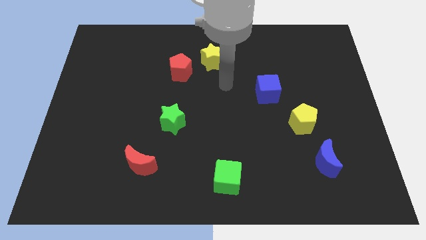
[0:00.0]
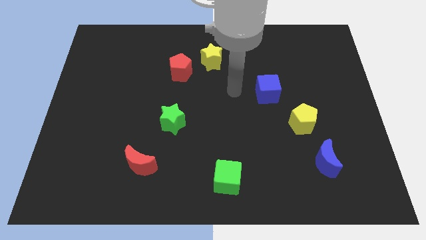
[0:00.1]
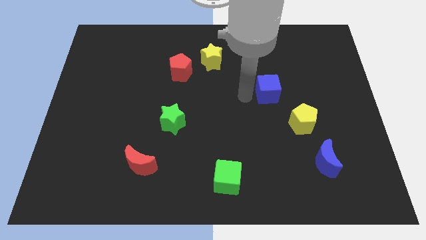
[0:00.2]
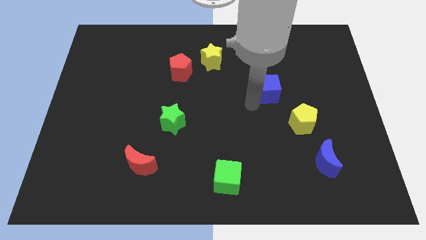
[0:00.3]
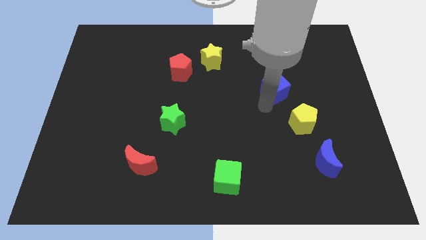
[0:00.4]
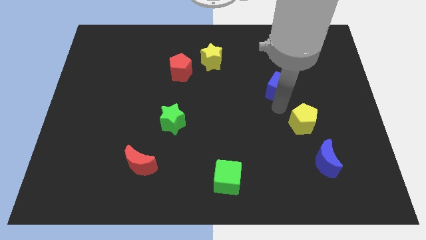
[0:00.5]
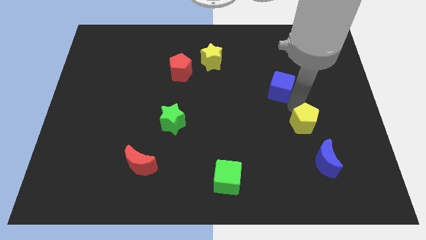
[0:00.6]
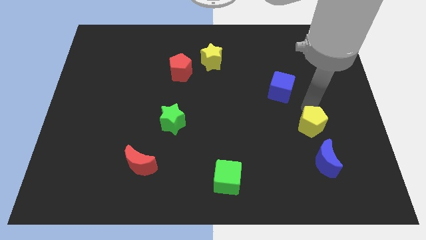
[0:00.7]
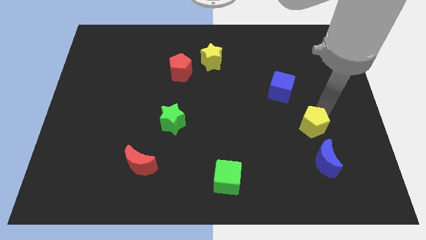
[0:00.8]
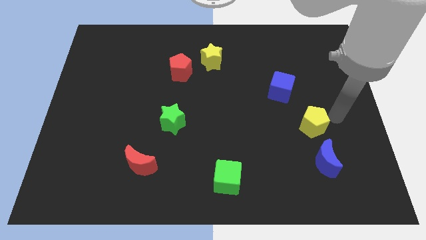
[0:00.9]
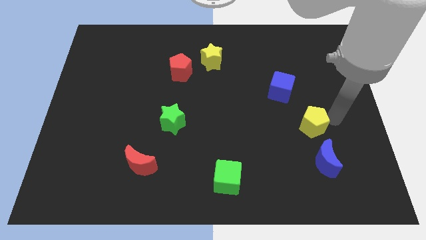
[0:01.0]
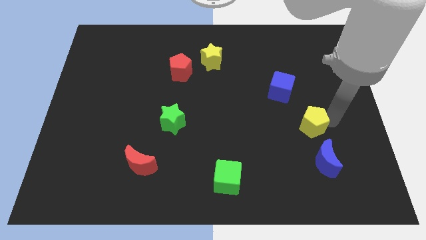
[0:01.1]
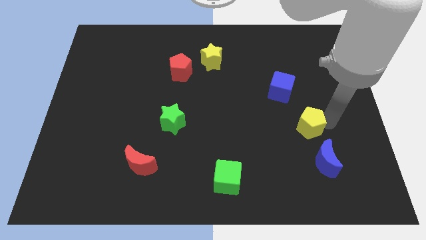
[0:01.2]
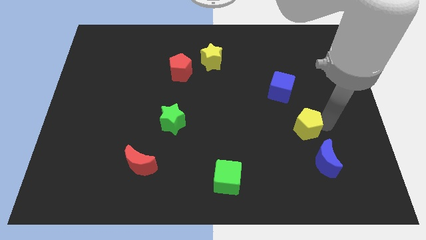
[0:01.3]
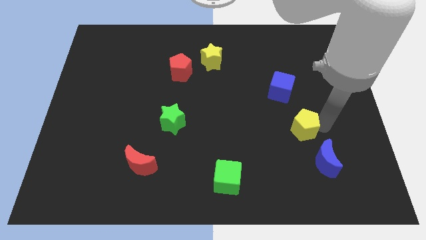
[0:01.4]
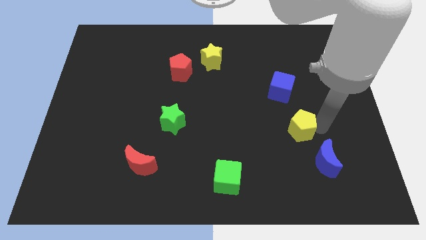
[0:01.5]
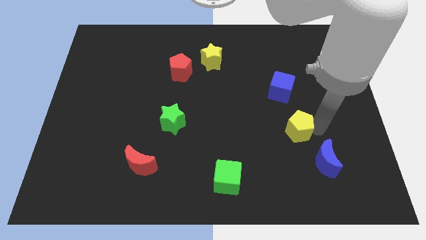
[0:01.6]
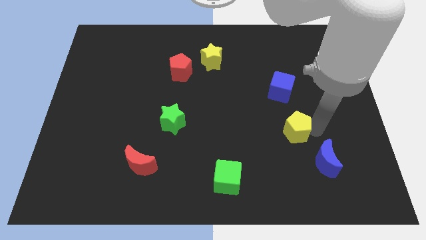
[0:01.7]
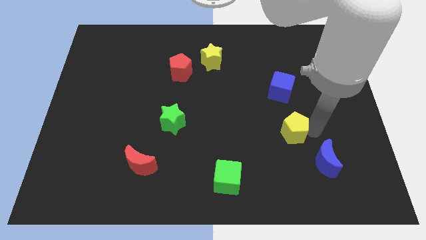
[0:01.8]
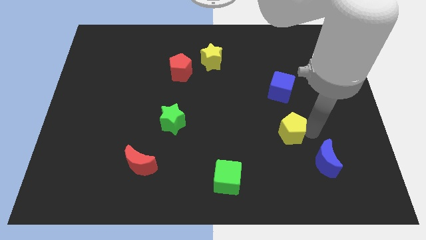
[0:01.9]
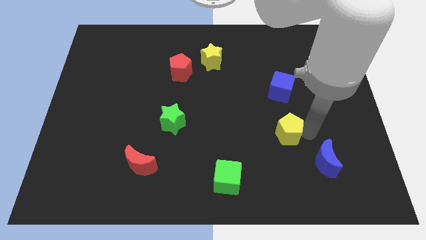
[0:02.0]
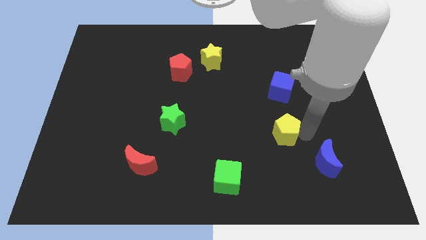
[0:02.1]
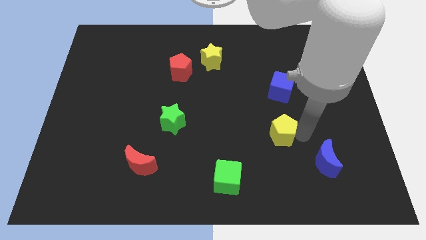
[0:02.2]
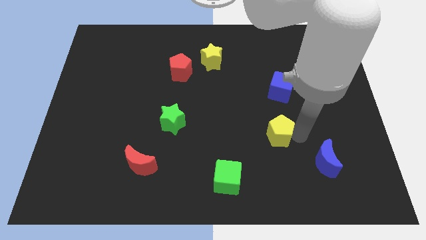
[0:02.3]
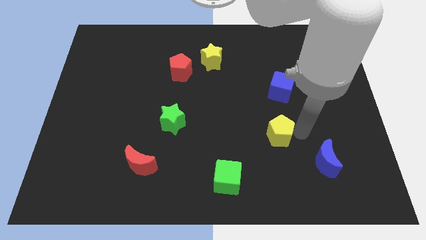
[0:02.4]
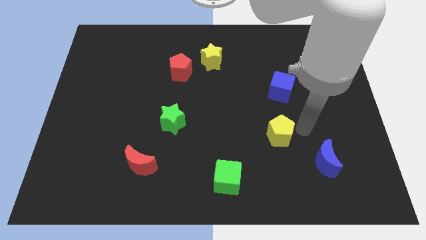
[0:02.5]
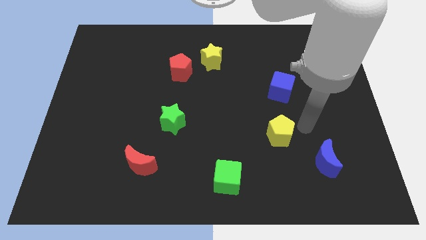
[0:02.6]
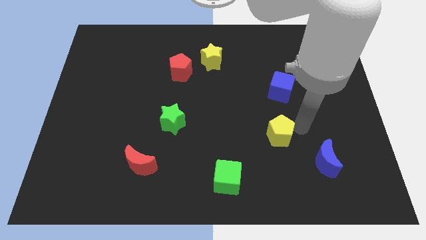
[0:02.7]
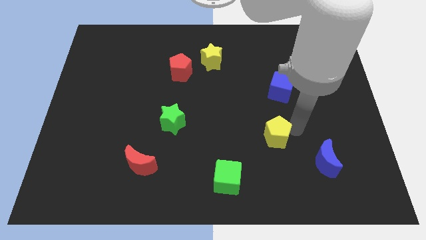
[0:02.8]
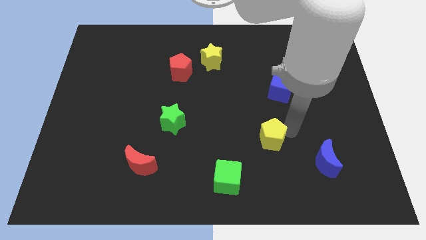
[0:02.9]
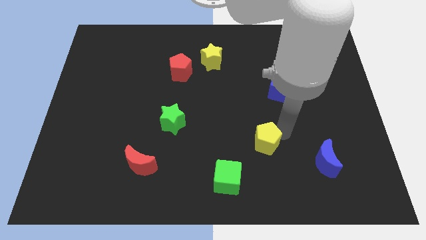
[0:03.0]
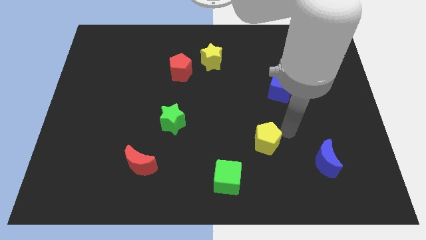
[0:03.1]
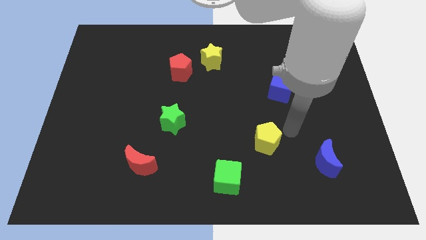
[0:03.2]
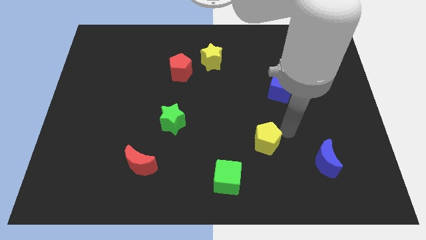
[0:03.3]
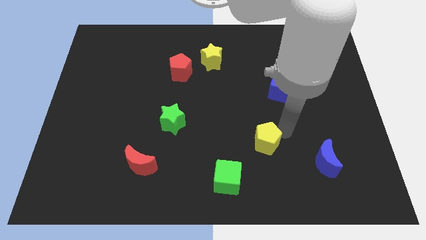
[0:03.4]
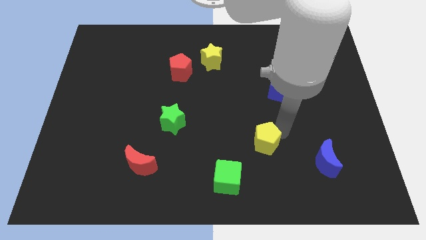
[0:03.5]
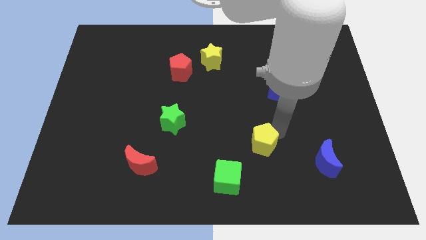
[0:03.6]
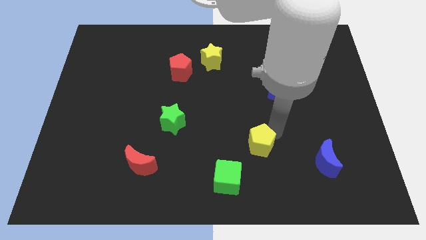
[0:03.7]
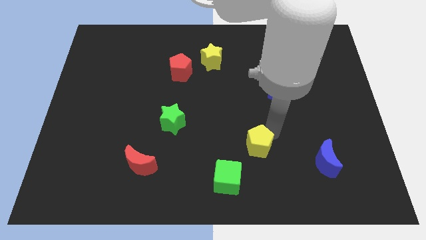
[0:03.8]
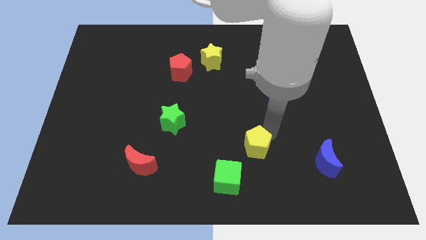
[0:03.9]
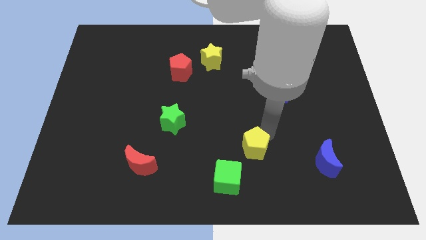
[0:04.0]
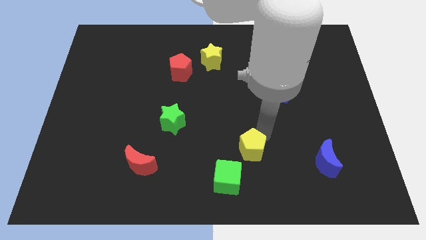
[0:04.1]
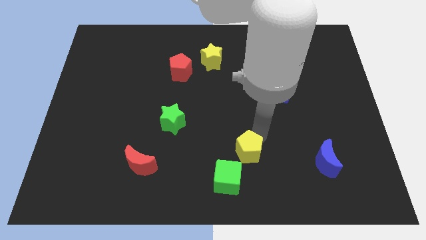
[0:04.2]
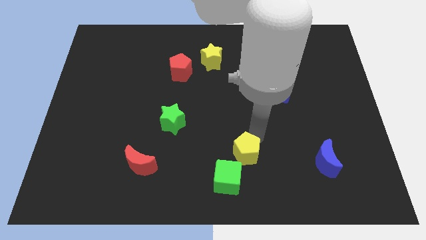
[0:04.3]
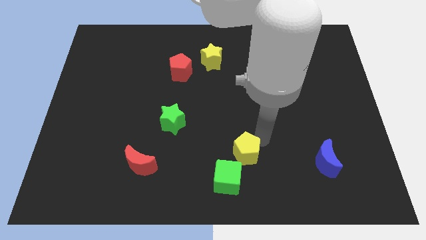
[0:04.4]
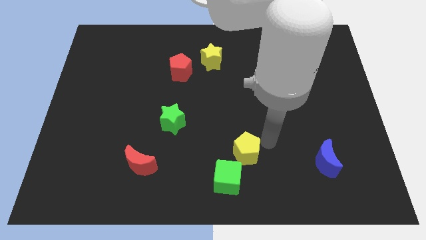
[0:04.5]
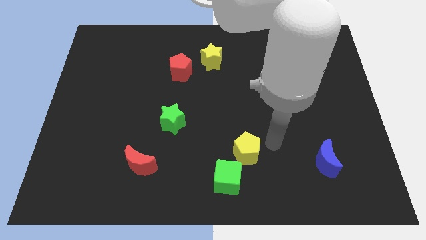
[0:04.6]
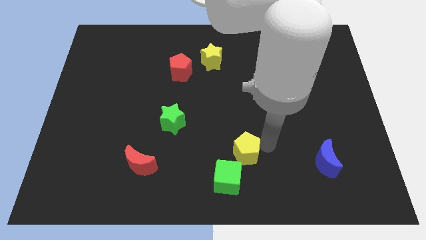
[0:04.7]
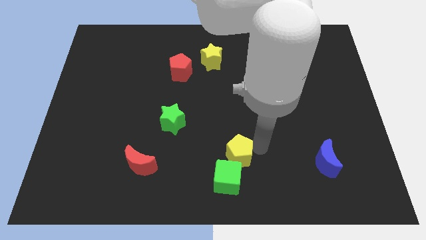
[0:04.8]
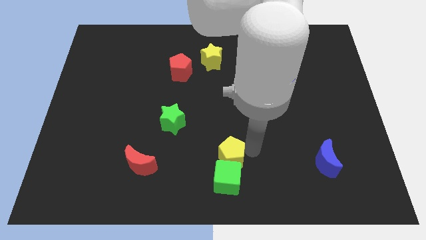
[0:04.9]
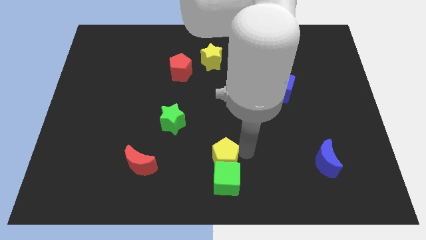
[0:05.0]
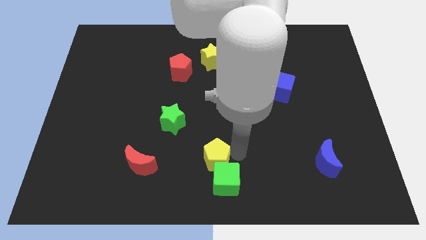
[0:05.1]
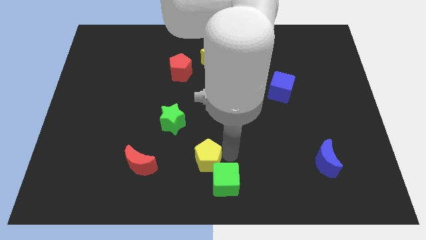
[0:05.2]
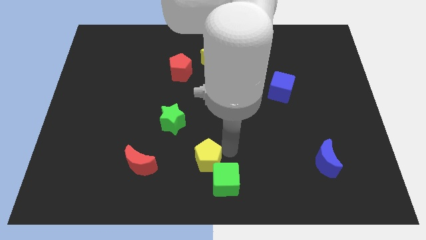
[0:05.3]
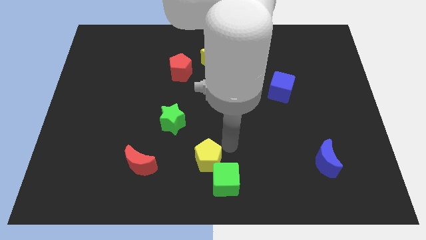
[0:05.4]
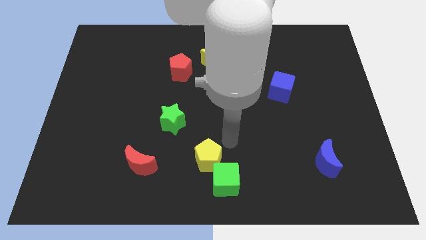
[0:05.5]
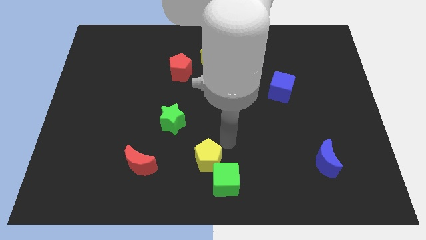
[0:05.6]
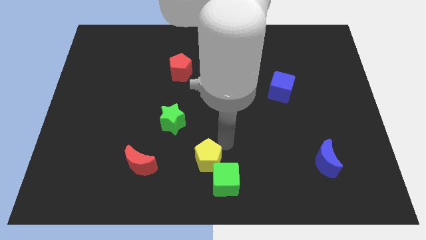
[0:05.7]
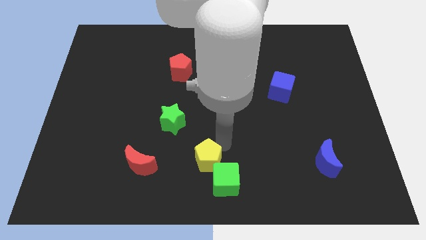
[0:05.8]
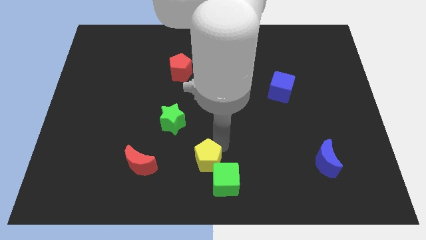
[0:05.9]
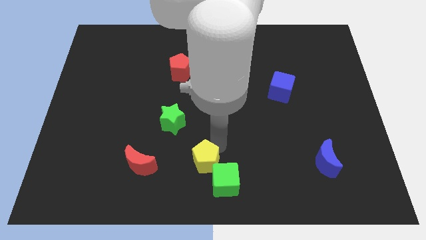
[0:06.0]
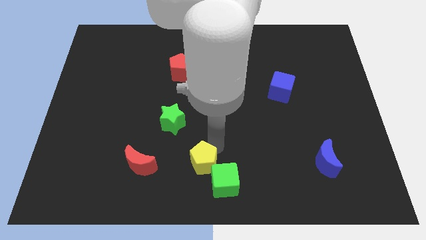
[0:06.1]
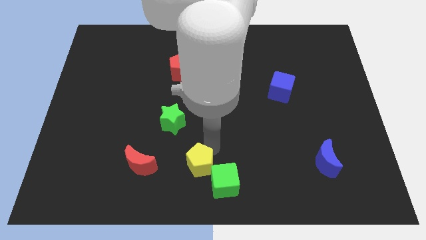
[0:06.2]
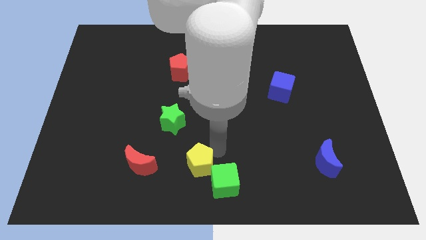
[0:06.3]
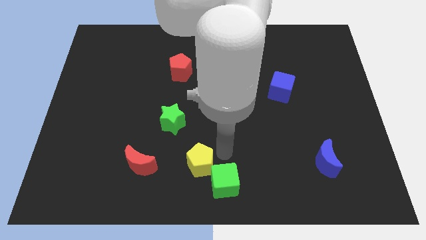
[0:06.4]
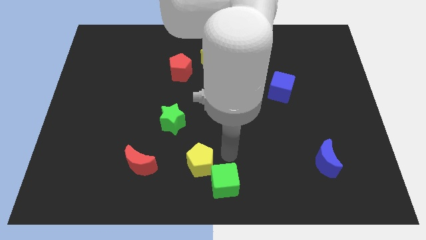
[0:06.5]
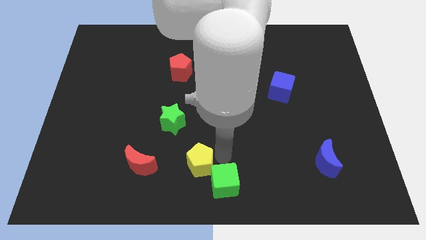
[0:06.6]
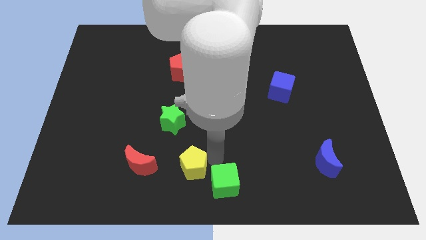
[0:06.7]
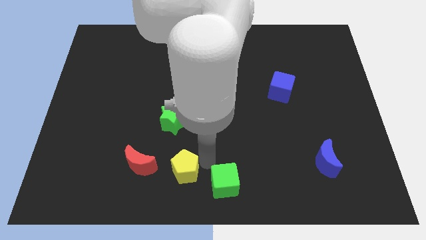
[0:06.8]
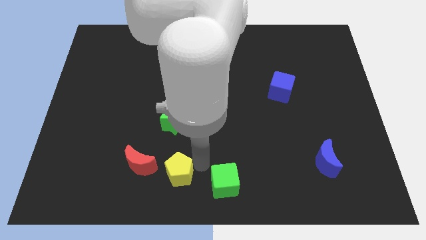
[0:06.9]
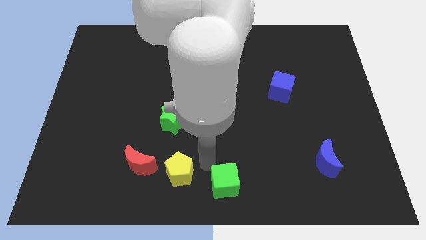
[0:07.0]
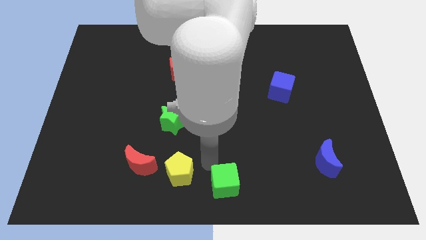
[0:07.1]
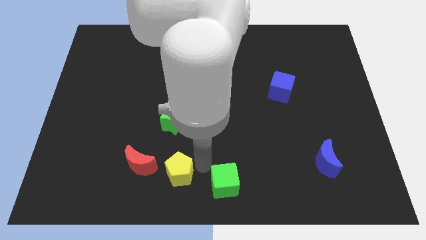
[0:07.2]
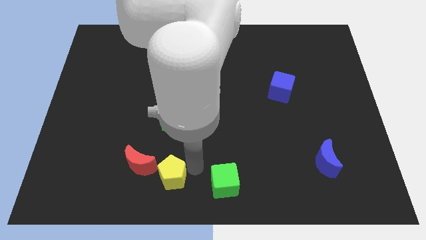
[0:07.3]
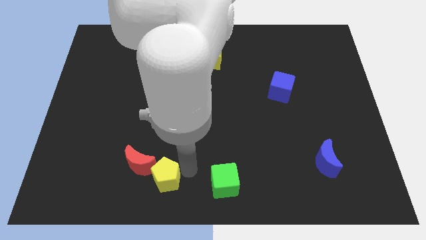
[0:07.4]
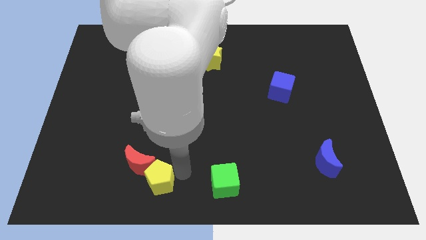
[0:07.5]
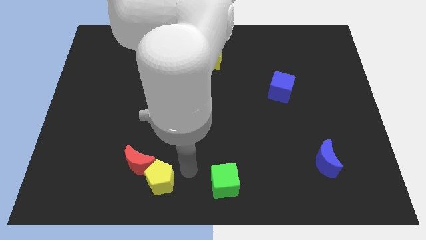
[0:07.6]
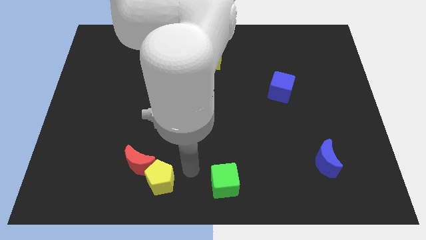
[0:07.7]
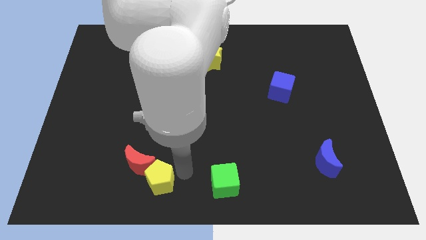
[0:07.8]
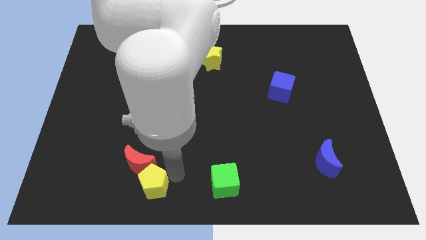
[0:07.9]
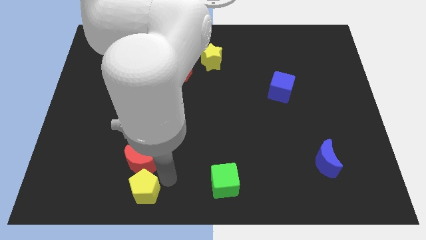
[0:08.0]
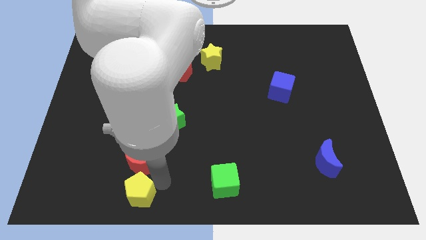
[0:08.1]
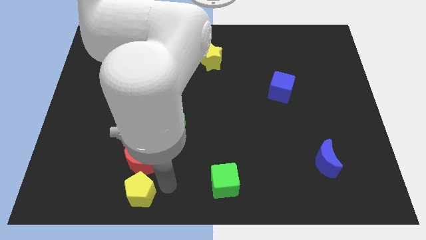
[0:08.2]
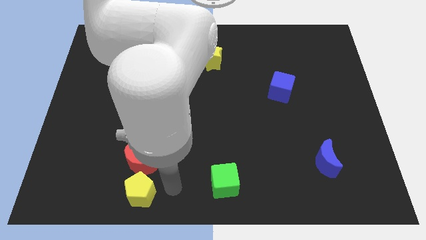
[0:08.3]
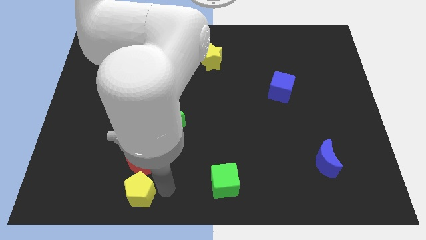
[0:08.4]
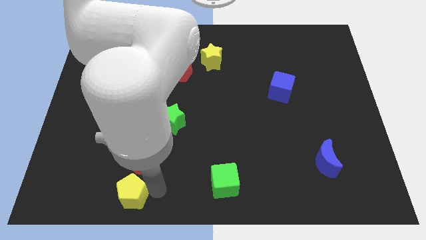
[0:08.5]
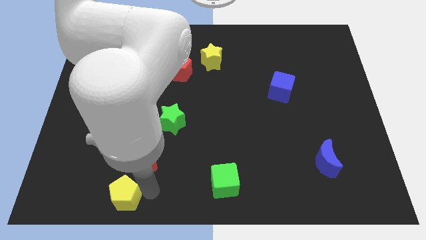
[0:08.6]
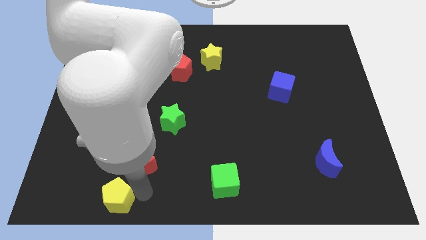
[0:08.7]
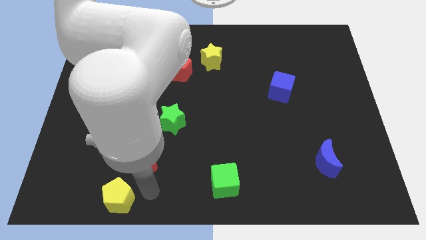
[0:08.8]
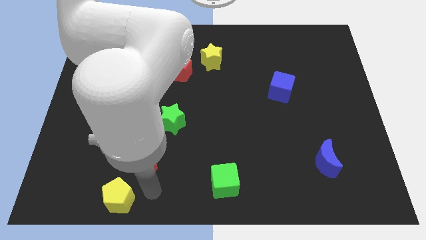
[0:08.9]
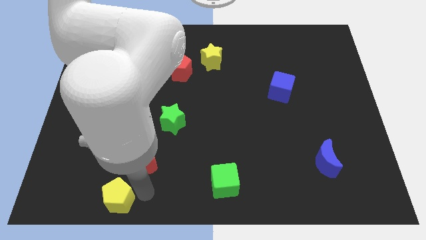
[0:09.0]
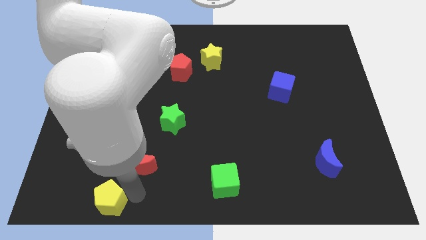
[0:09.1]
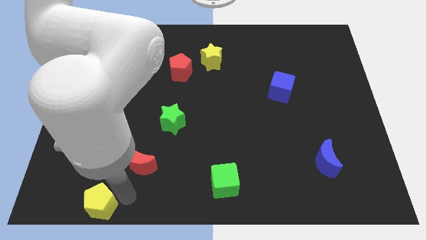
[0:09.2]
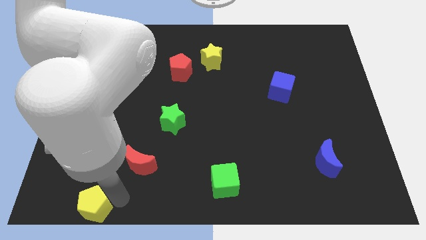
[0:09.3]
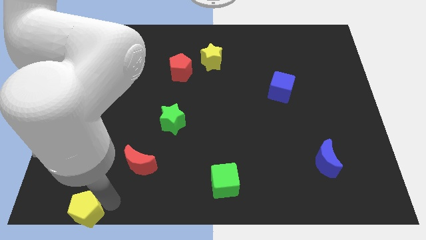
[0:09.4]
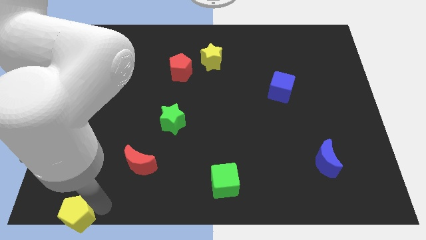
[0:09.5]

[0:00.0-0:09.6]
push the yellow pentagon to the lower left corner
